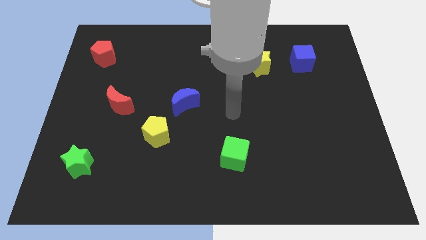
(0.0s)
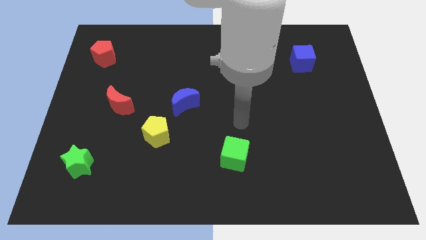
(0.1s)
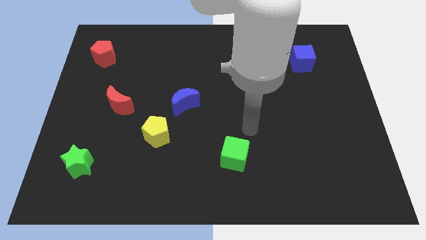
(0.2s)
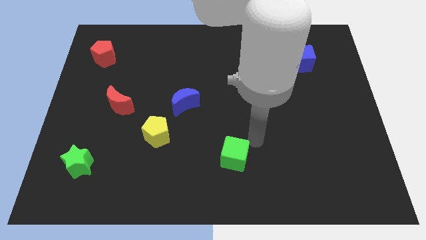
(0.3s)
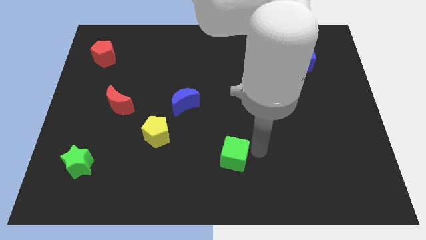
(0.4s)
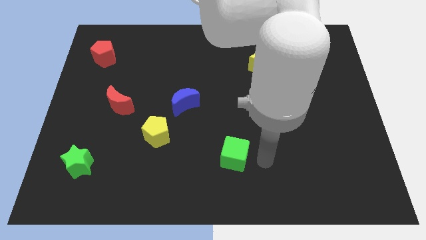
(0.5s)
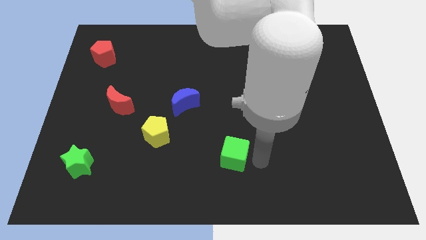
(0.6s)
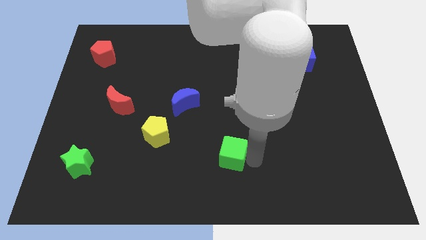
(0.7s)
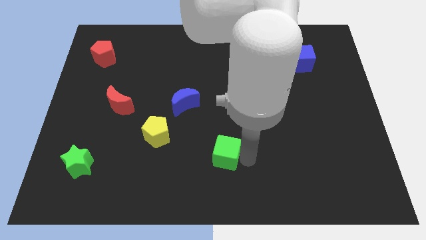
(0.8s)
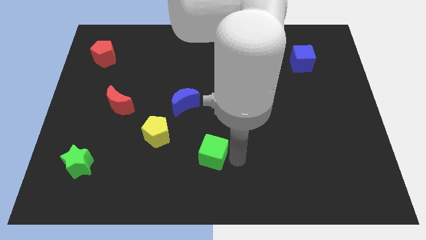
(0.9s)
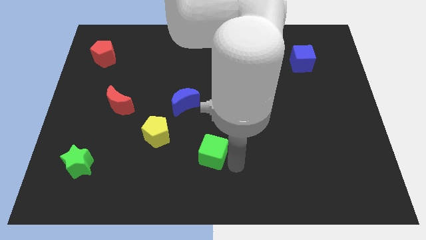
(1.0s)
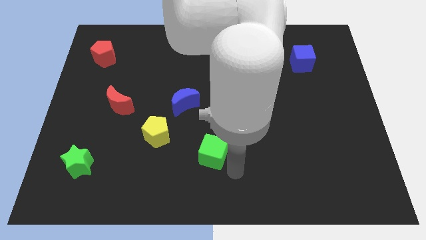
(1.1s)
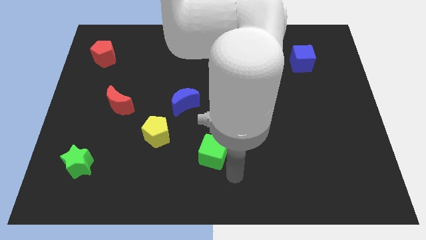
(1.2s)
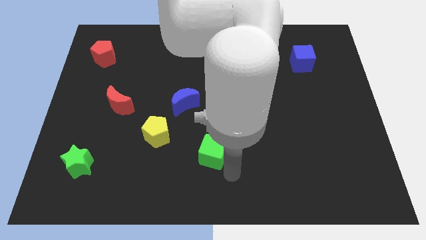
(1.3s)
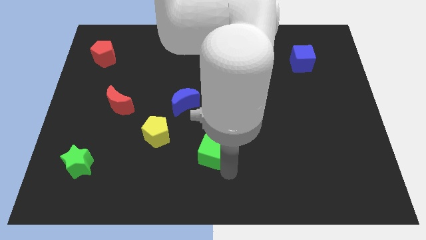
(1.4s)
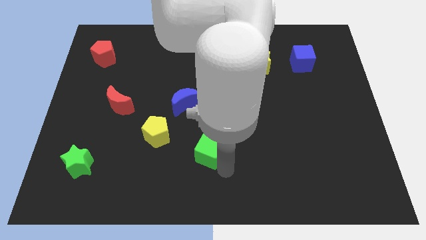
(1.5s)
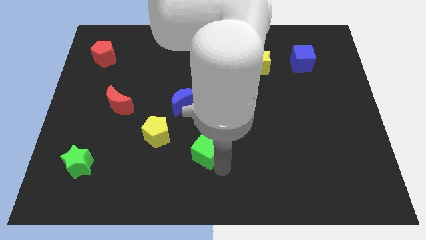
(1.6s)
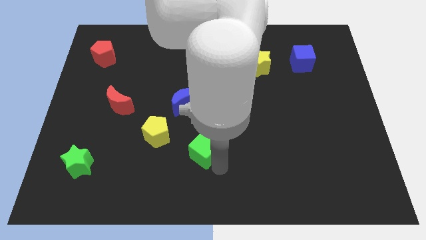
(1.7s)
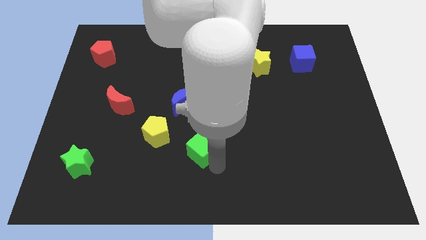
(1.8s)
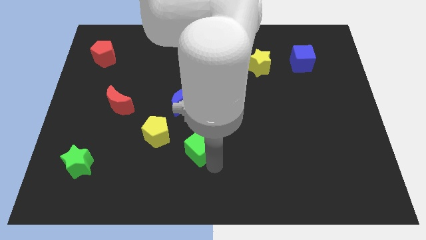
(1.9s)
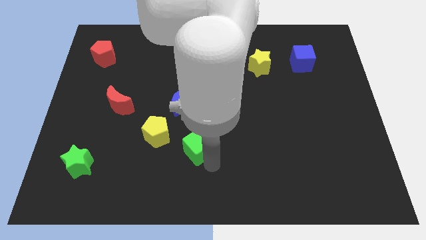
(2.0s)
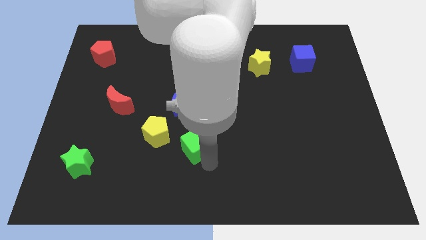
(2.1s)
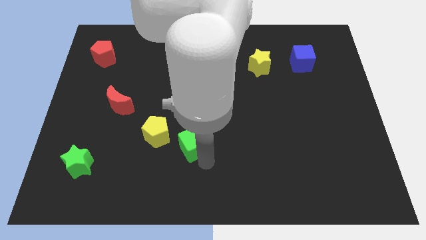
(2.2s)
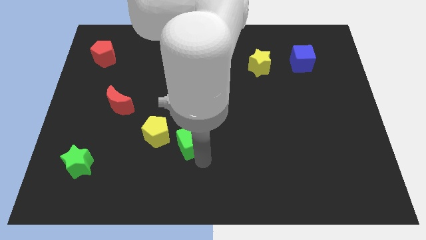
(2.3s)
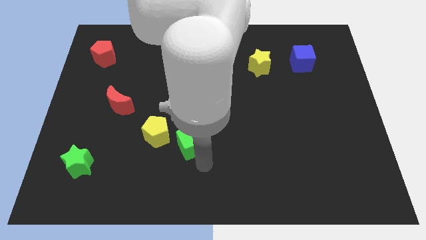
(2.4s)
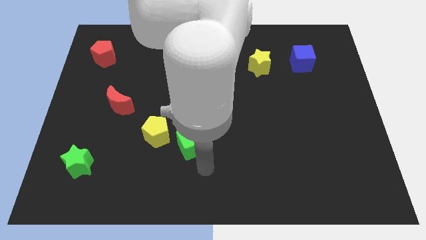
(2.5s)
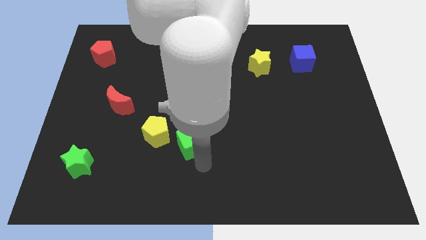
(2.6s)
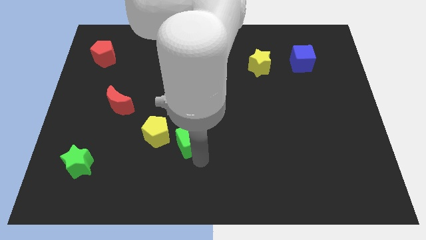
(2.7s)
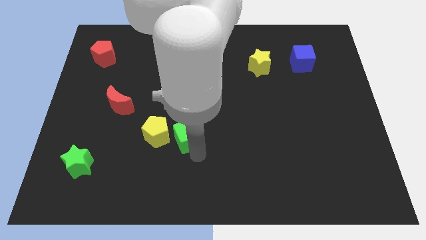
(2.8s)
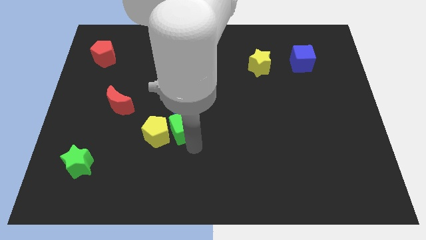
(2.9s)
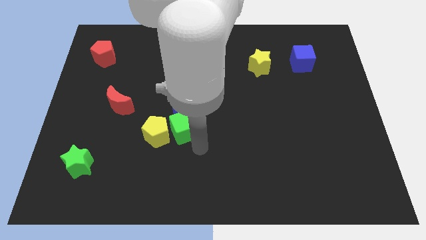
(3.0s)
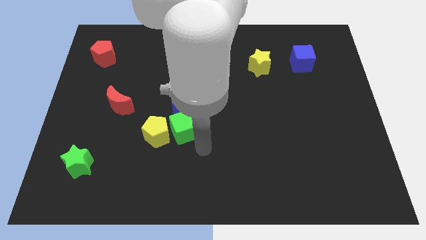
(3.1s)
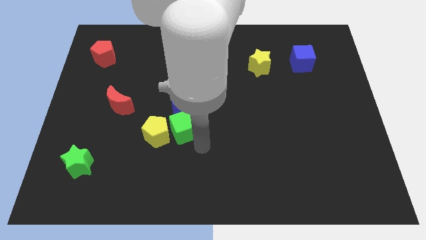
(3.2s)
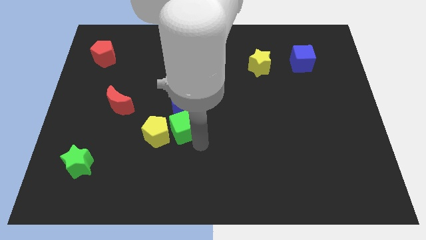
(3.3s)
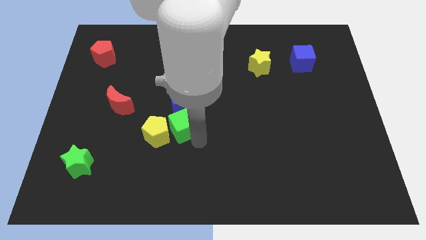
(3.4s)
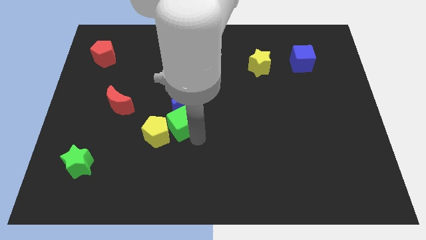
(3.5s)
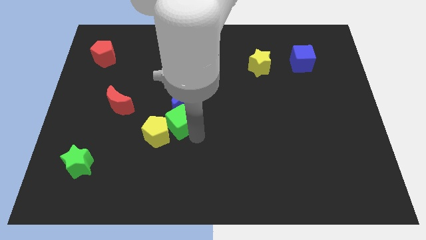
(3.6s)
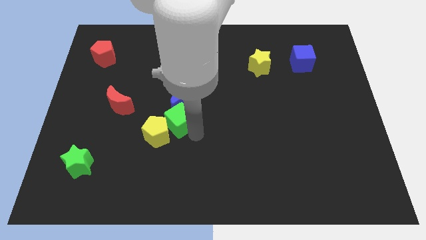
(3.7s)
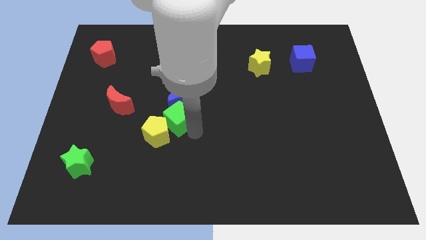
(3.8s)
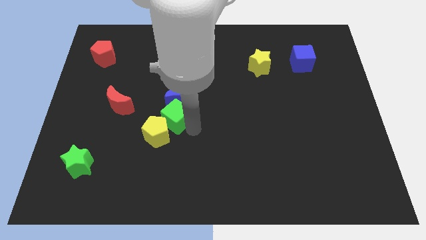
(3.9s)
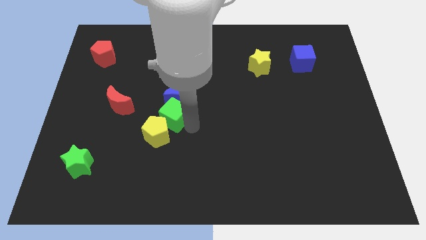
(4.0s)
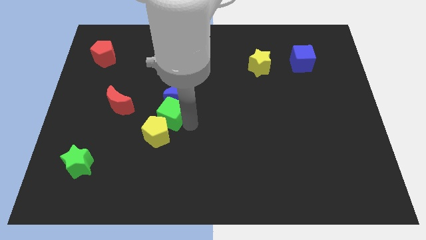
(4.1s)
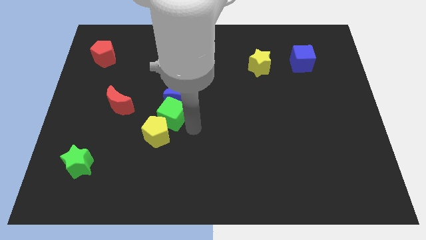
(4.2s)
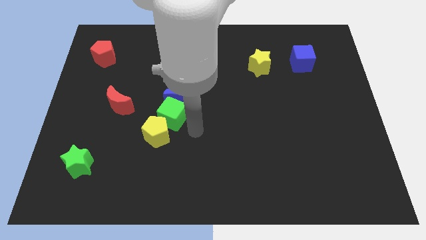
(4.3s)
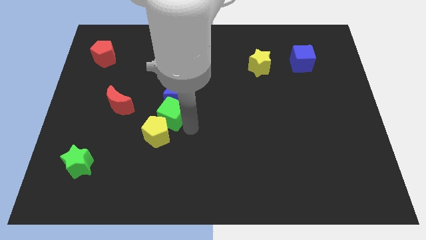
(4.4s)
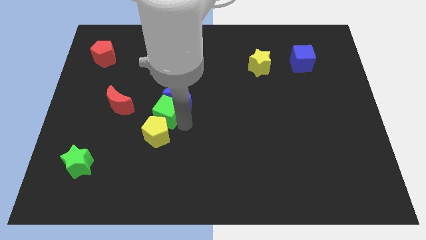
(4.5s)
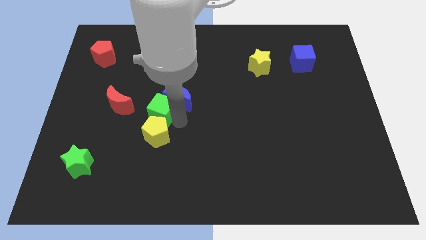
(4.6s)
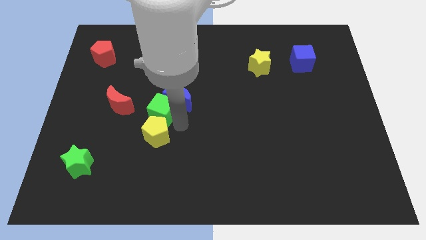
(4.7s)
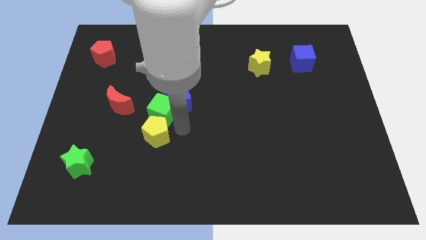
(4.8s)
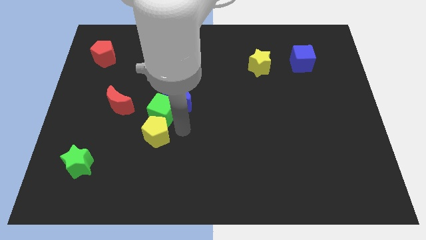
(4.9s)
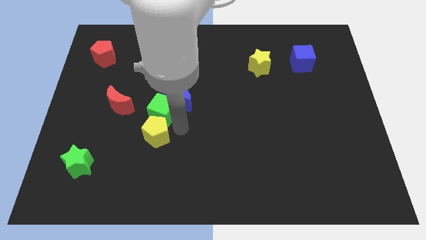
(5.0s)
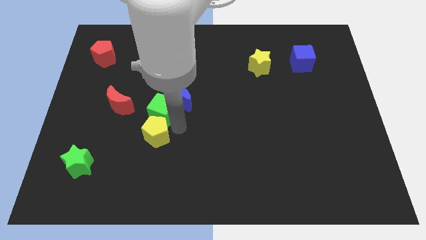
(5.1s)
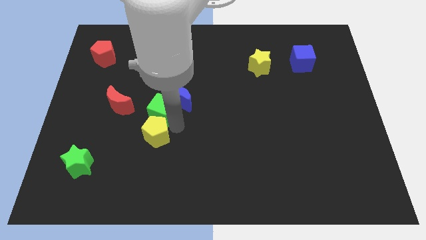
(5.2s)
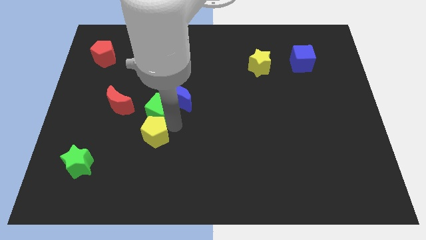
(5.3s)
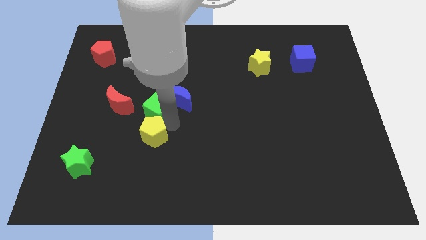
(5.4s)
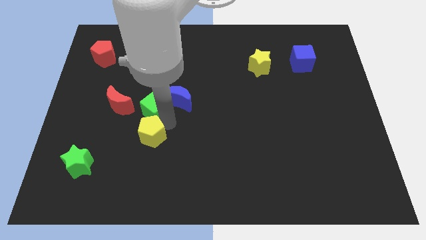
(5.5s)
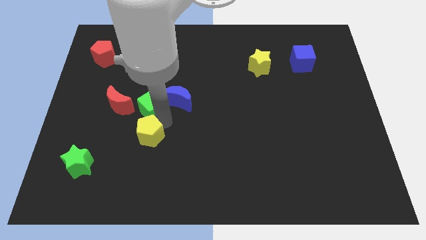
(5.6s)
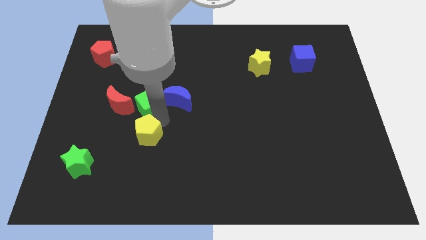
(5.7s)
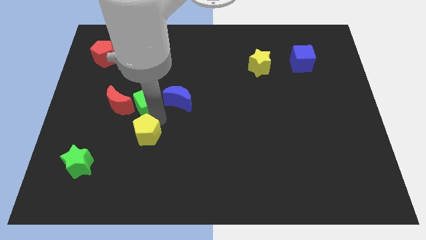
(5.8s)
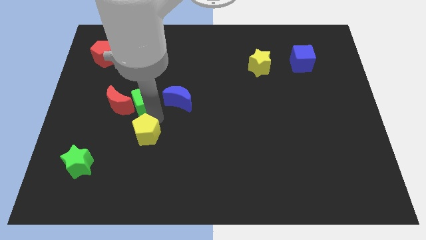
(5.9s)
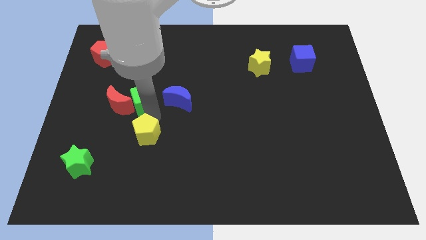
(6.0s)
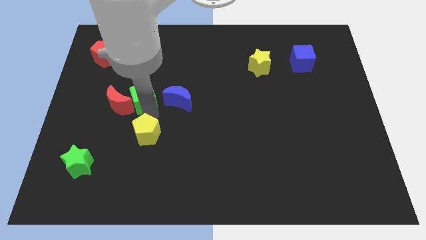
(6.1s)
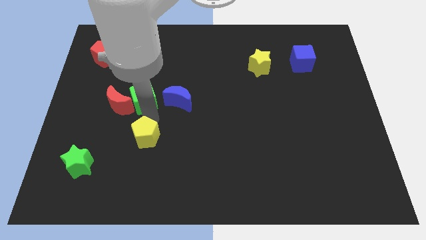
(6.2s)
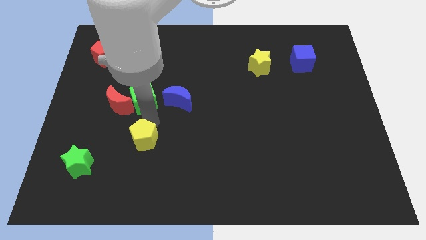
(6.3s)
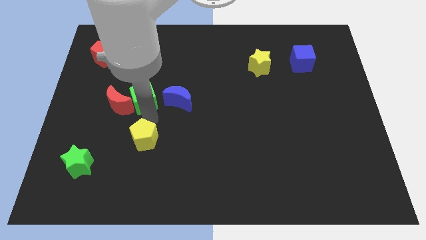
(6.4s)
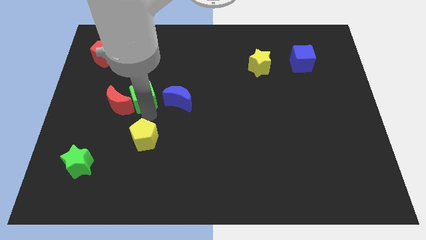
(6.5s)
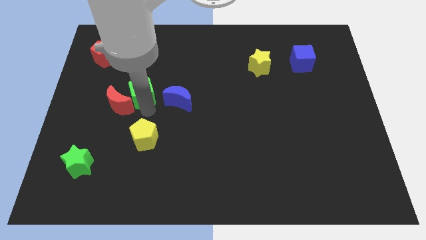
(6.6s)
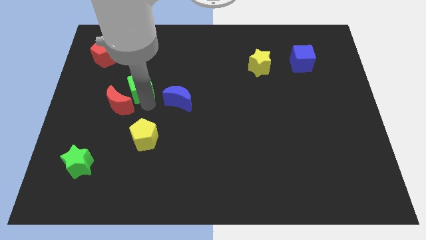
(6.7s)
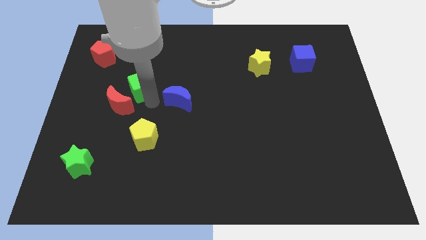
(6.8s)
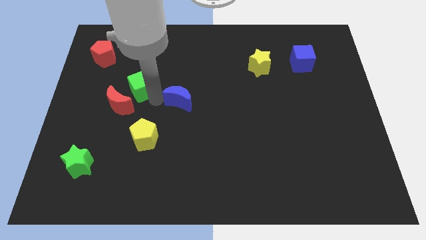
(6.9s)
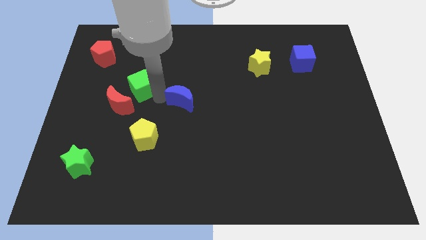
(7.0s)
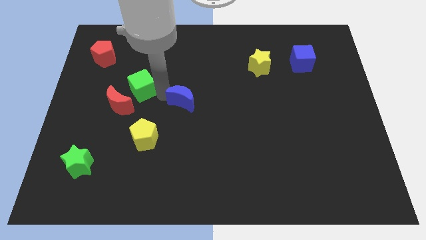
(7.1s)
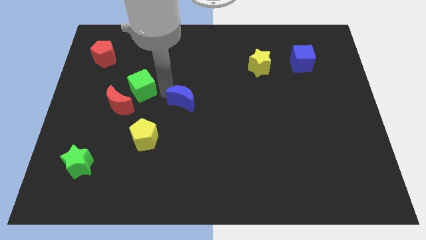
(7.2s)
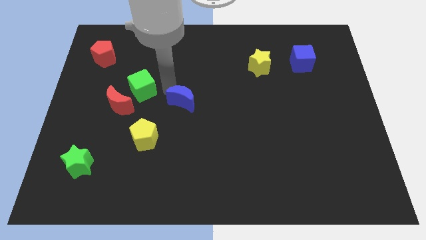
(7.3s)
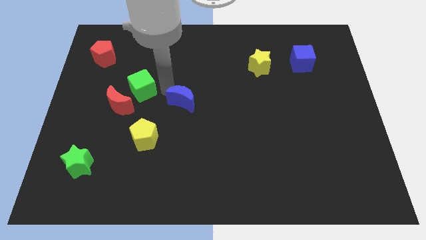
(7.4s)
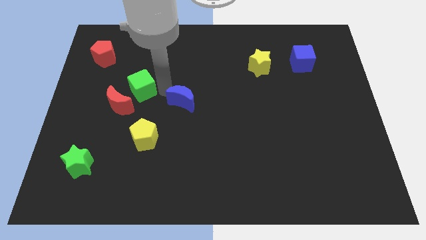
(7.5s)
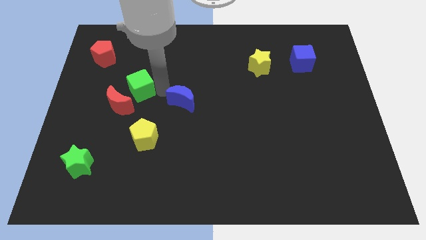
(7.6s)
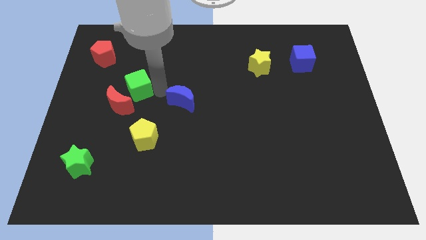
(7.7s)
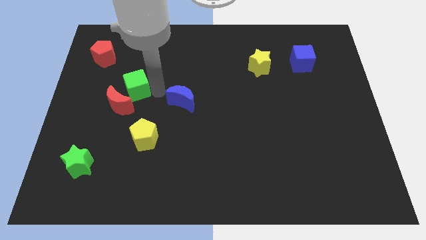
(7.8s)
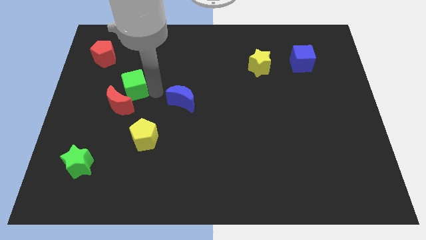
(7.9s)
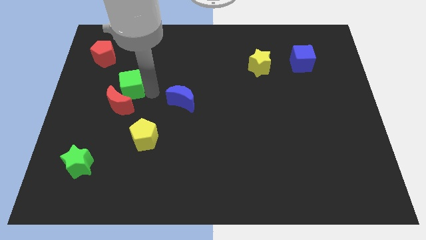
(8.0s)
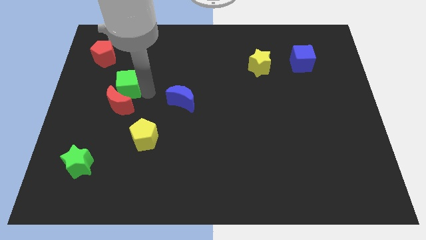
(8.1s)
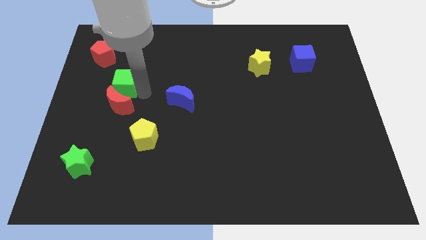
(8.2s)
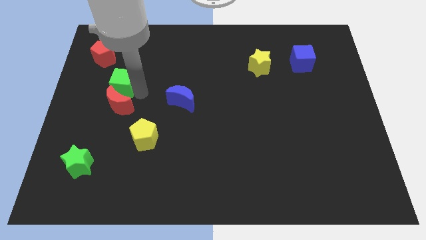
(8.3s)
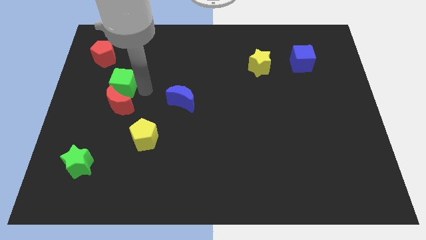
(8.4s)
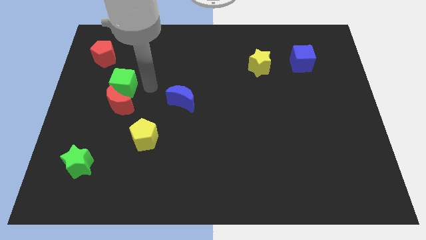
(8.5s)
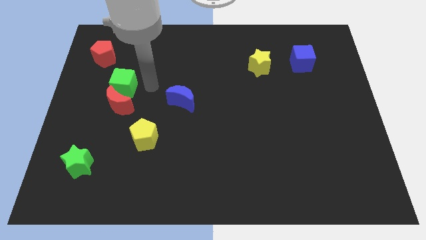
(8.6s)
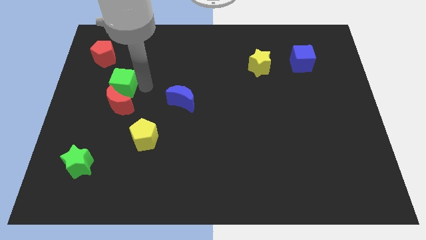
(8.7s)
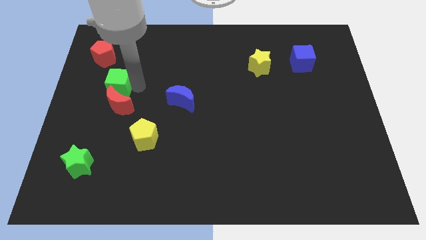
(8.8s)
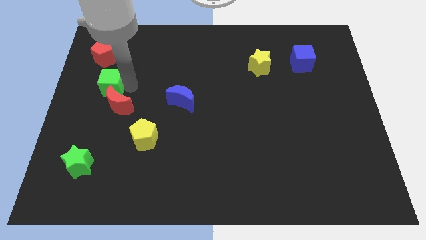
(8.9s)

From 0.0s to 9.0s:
move the green cube to the bottom side of the red pentagon
